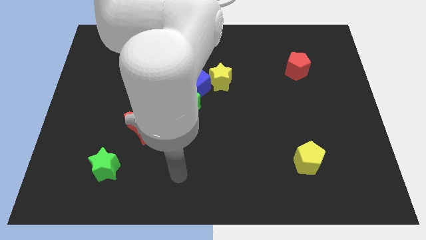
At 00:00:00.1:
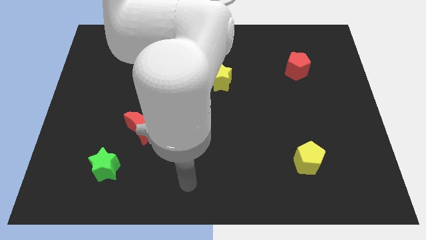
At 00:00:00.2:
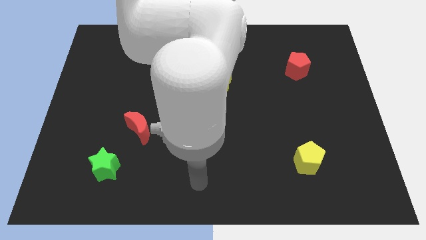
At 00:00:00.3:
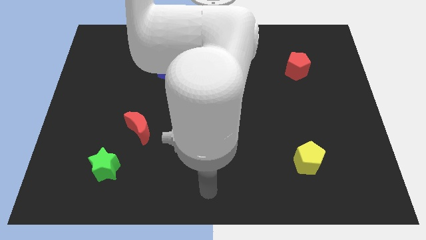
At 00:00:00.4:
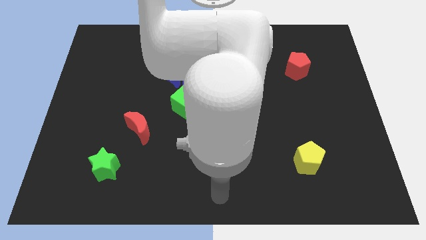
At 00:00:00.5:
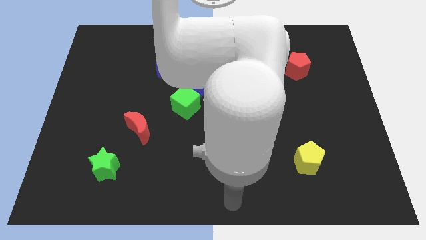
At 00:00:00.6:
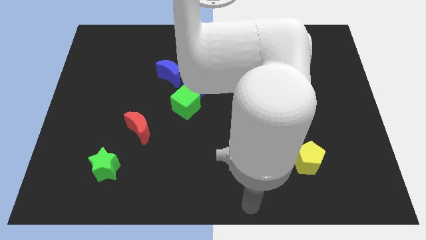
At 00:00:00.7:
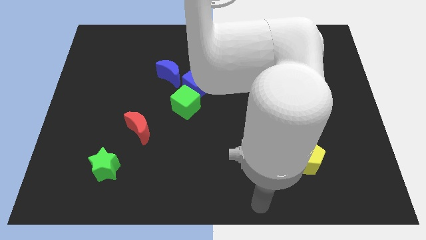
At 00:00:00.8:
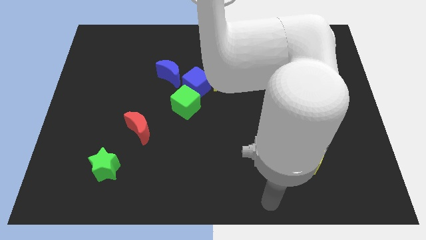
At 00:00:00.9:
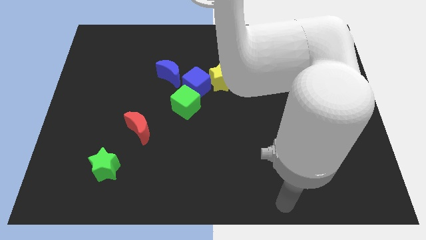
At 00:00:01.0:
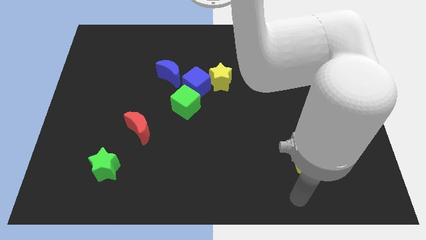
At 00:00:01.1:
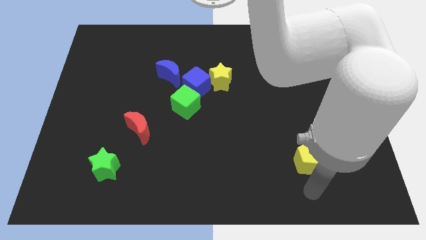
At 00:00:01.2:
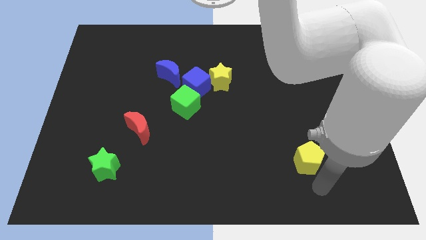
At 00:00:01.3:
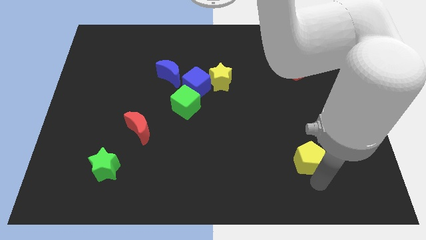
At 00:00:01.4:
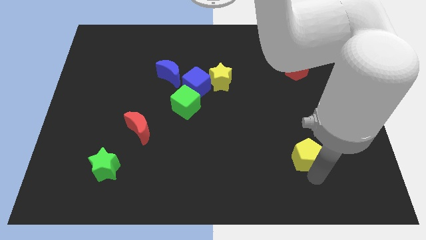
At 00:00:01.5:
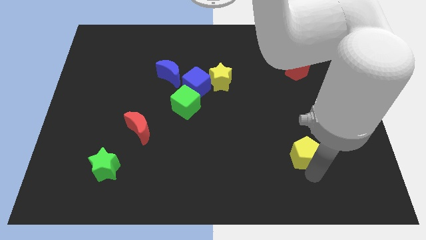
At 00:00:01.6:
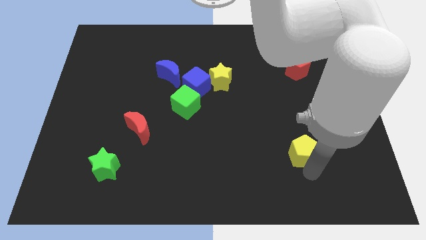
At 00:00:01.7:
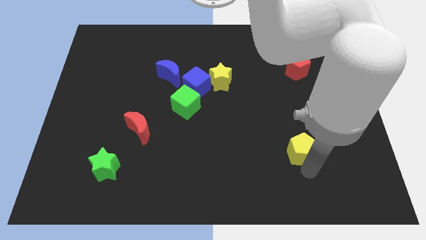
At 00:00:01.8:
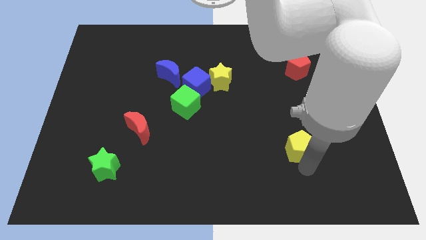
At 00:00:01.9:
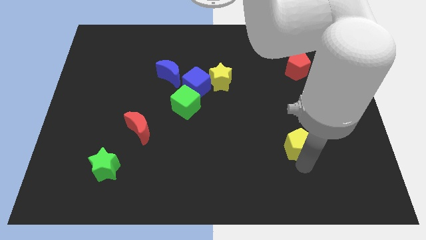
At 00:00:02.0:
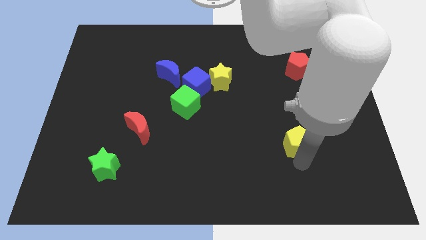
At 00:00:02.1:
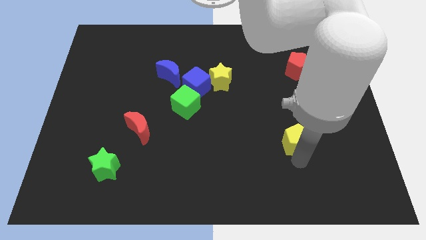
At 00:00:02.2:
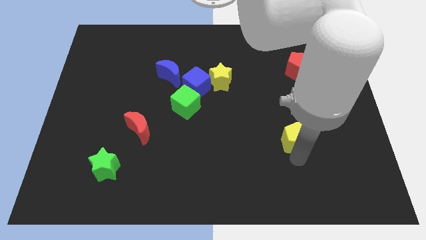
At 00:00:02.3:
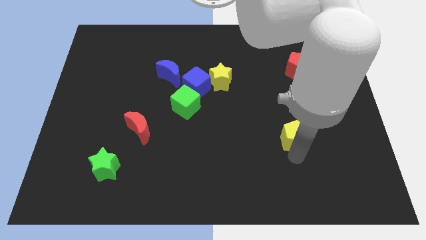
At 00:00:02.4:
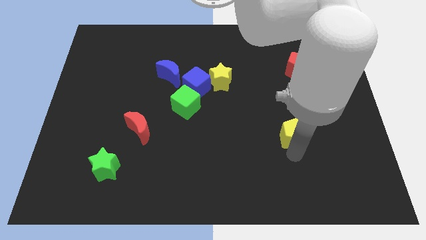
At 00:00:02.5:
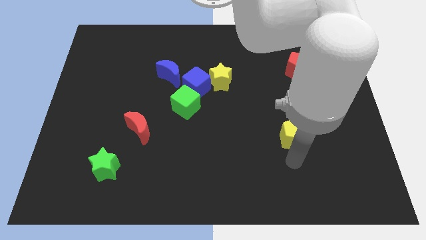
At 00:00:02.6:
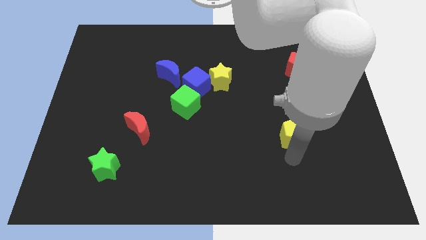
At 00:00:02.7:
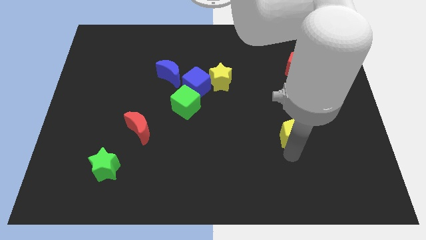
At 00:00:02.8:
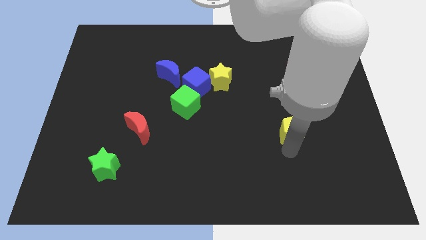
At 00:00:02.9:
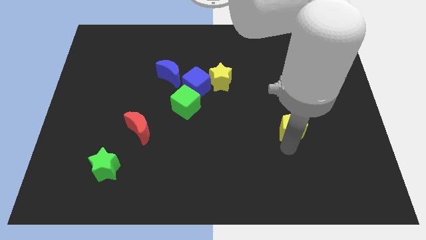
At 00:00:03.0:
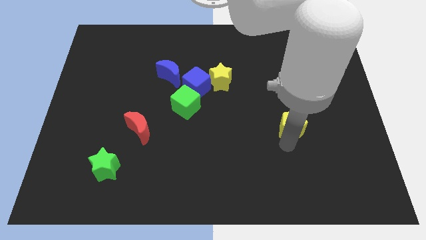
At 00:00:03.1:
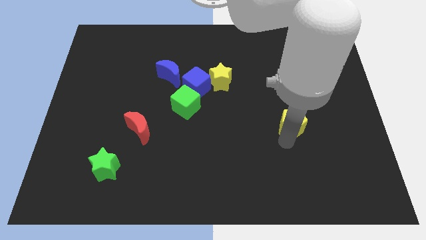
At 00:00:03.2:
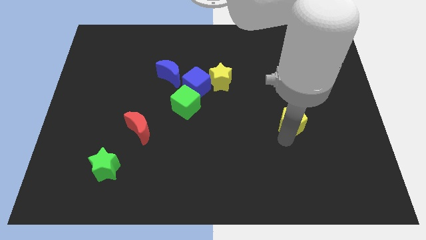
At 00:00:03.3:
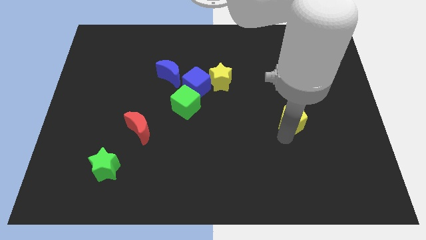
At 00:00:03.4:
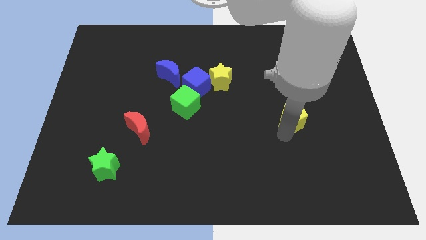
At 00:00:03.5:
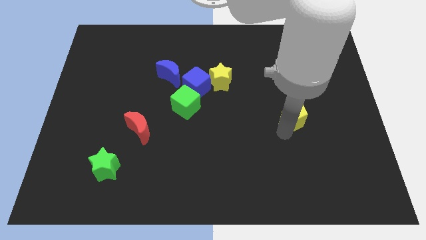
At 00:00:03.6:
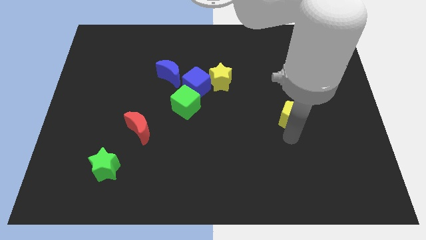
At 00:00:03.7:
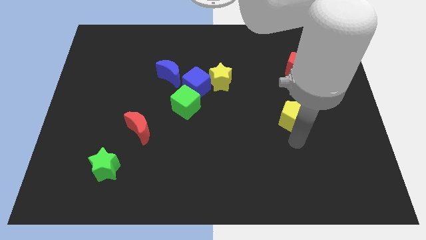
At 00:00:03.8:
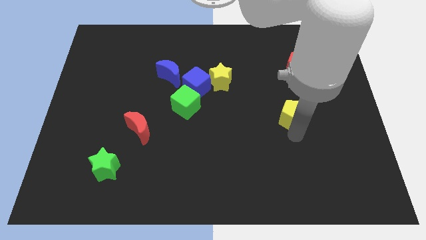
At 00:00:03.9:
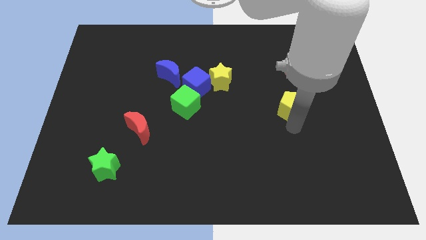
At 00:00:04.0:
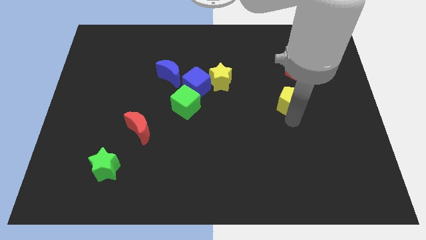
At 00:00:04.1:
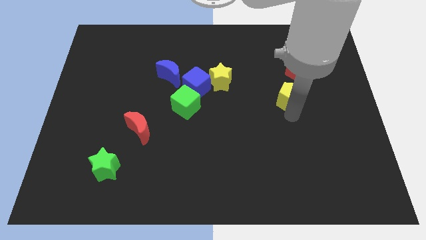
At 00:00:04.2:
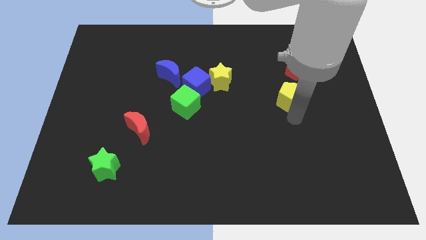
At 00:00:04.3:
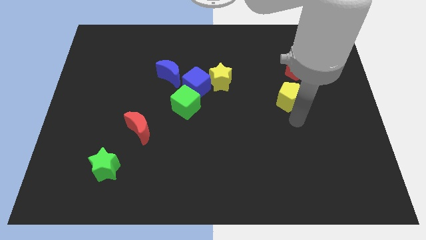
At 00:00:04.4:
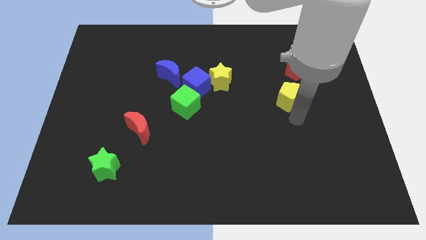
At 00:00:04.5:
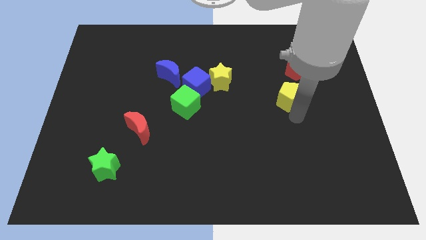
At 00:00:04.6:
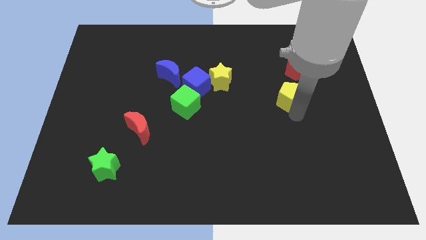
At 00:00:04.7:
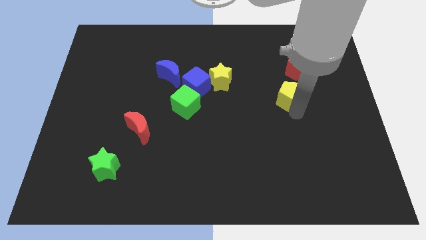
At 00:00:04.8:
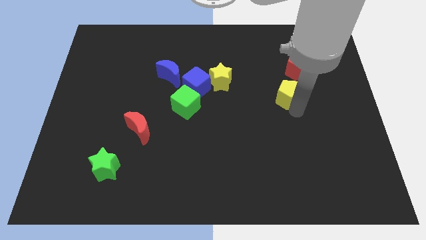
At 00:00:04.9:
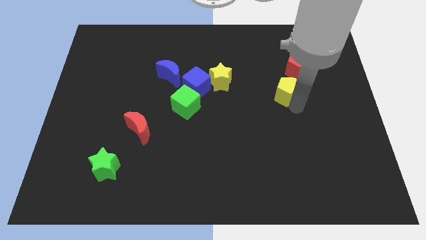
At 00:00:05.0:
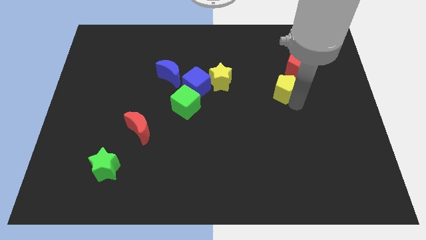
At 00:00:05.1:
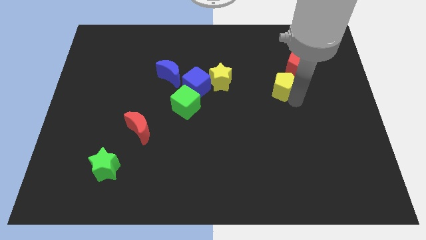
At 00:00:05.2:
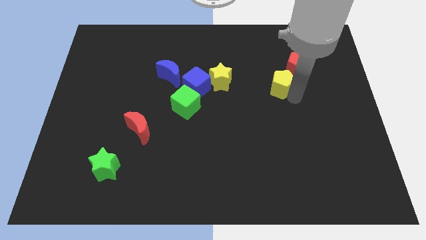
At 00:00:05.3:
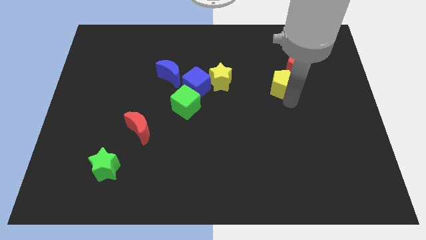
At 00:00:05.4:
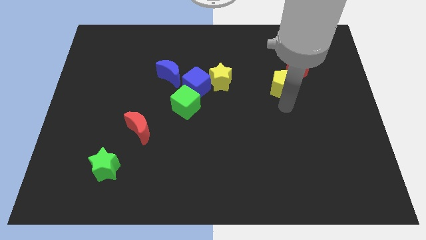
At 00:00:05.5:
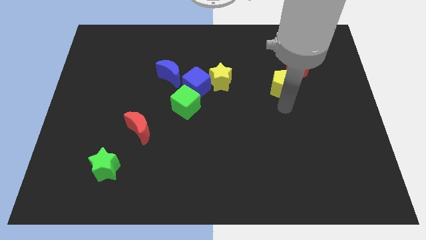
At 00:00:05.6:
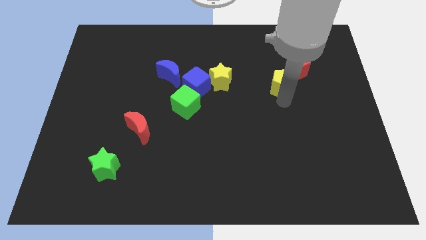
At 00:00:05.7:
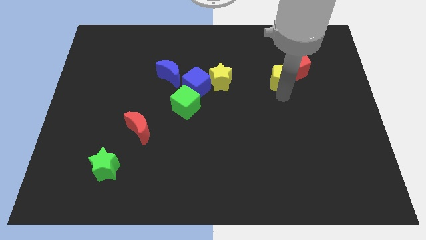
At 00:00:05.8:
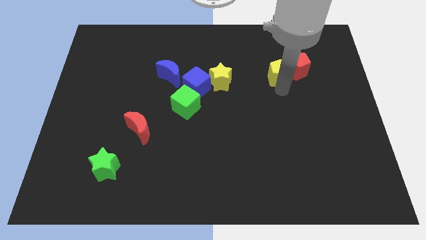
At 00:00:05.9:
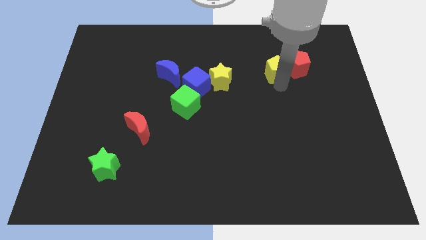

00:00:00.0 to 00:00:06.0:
slide the yellow pentagon to the top left of the red pentagon
